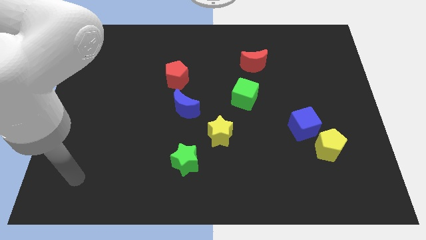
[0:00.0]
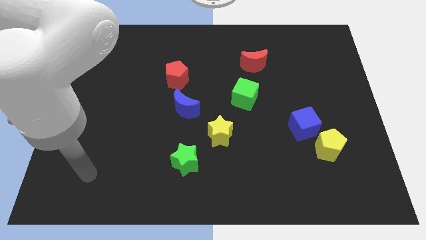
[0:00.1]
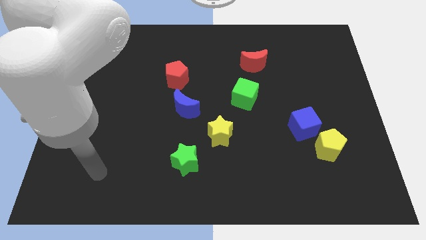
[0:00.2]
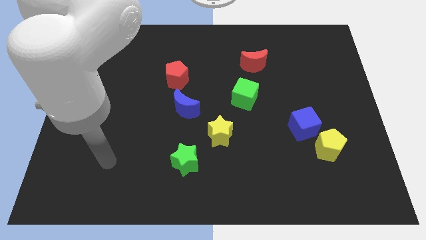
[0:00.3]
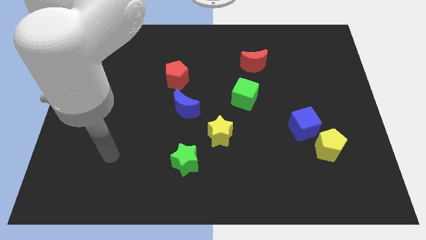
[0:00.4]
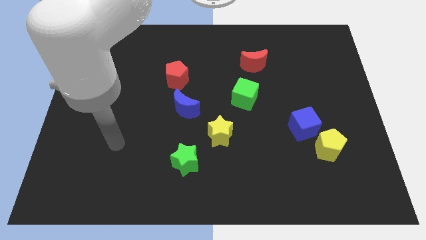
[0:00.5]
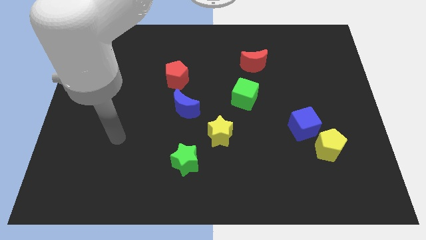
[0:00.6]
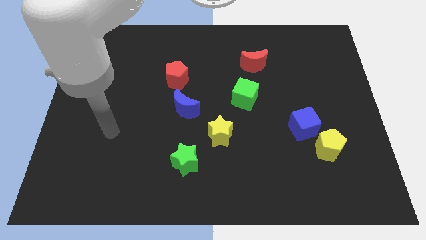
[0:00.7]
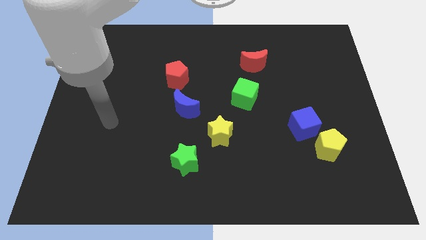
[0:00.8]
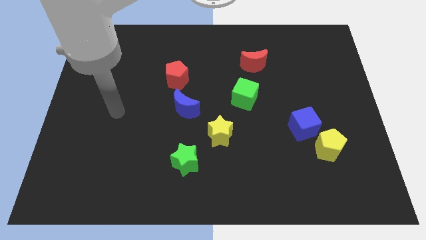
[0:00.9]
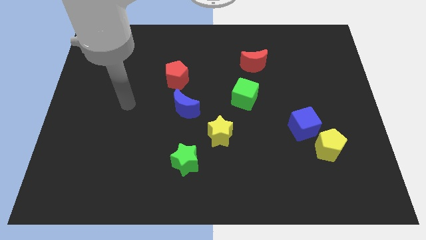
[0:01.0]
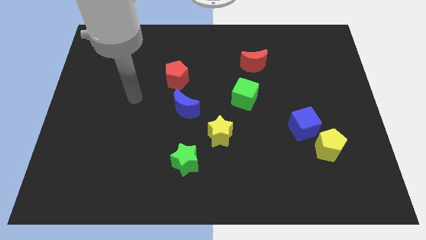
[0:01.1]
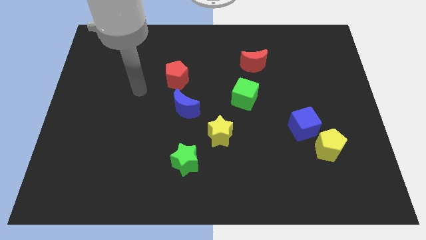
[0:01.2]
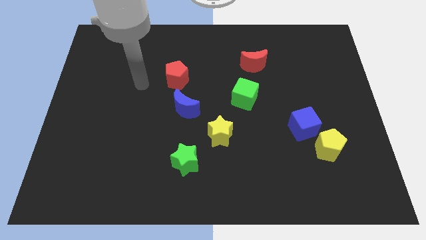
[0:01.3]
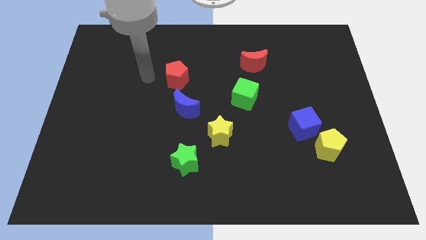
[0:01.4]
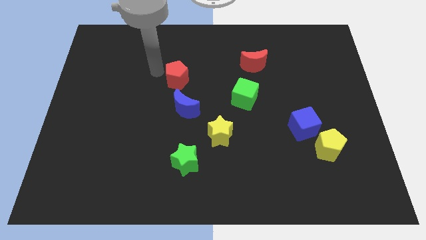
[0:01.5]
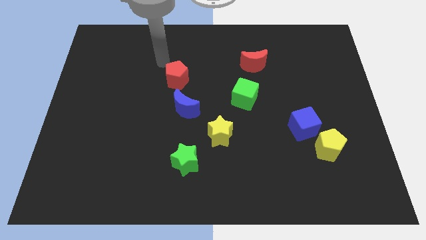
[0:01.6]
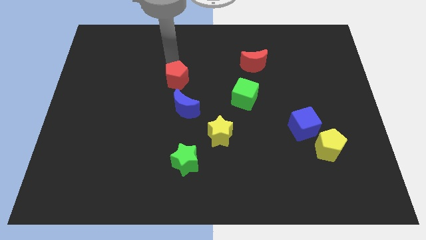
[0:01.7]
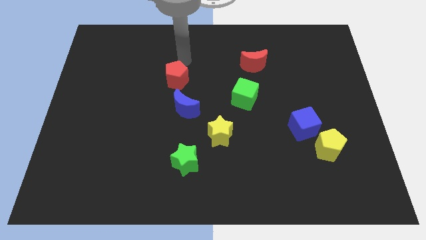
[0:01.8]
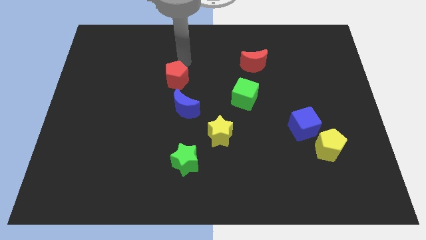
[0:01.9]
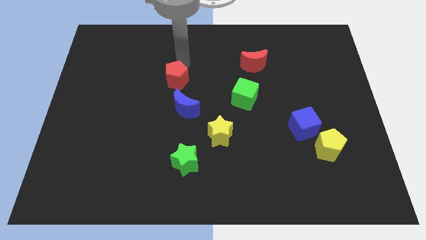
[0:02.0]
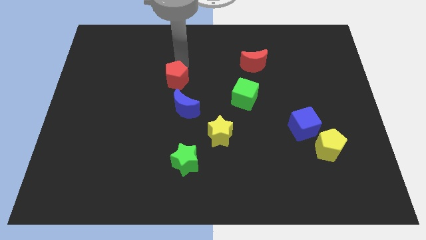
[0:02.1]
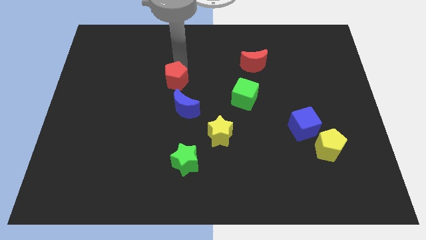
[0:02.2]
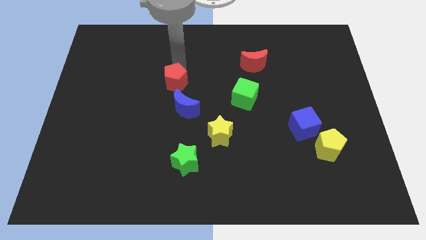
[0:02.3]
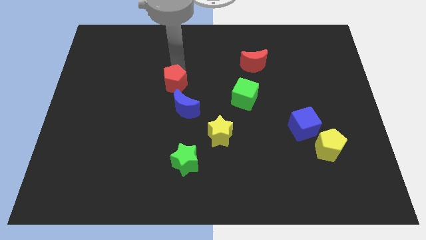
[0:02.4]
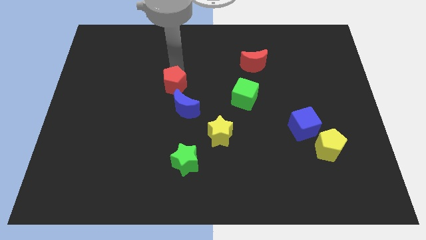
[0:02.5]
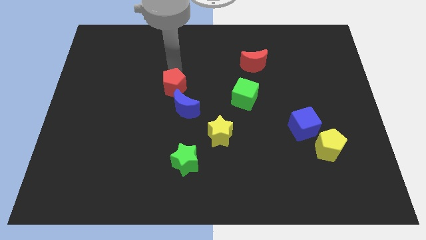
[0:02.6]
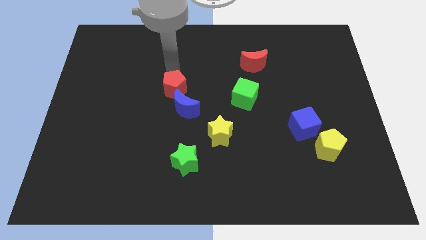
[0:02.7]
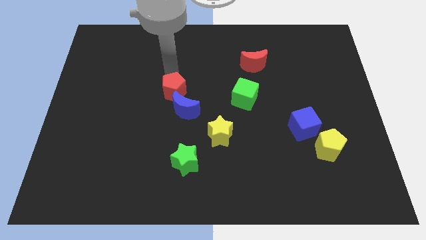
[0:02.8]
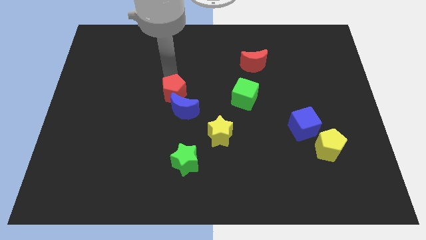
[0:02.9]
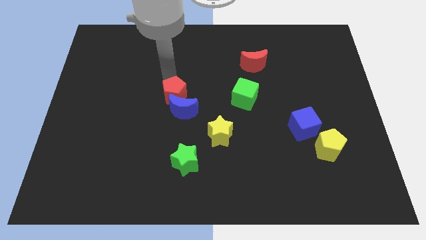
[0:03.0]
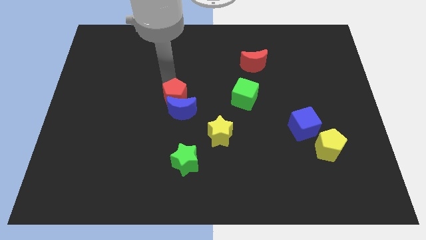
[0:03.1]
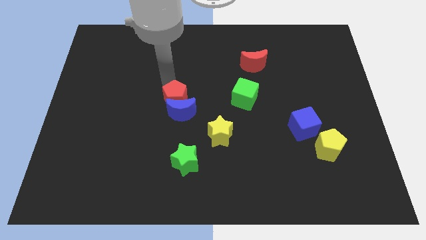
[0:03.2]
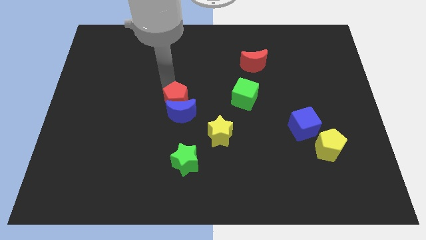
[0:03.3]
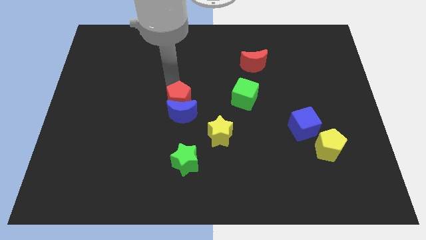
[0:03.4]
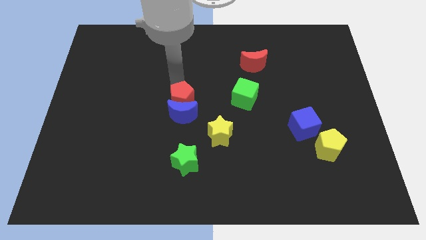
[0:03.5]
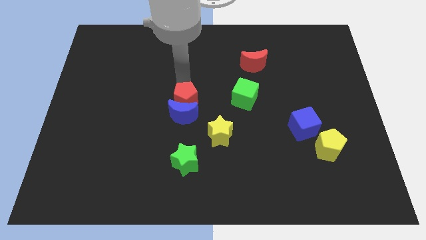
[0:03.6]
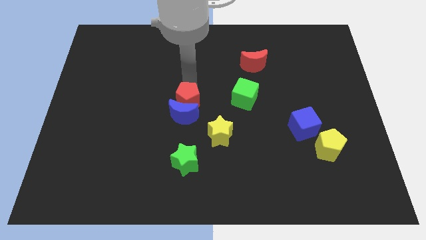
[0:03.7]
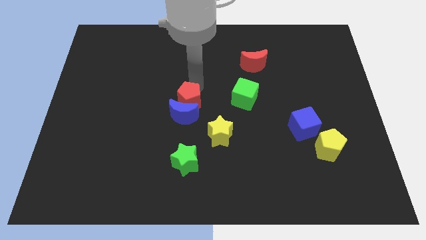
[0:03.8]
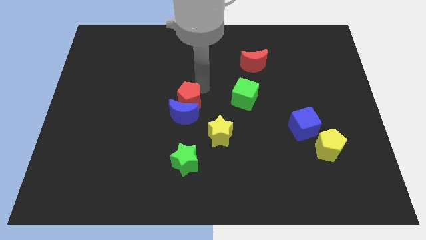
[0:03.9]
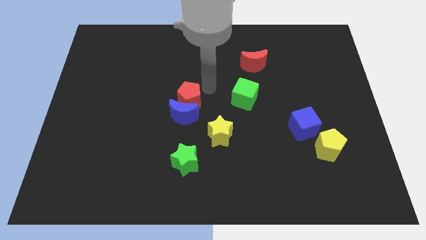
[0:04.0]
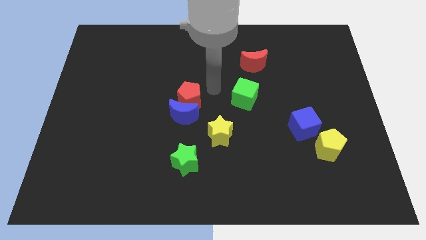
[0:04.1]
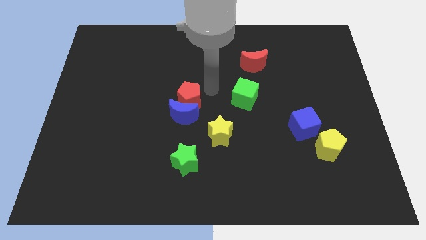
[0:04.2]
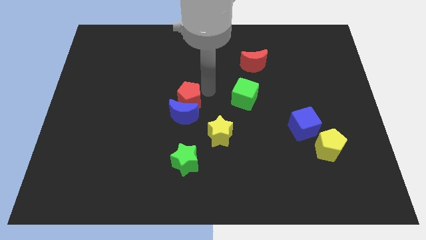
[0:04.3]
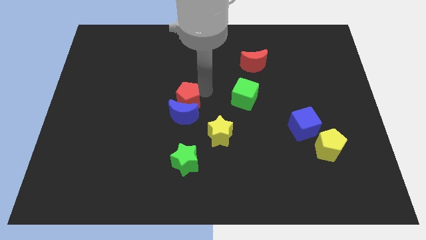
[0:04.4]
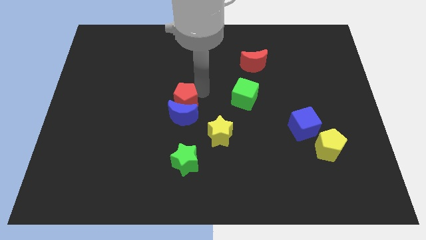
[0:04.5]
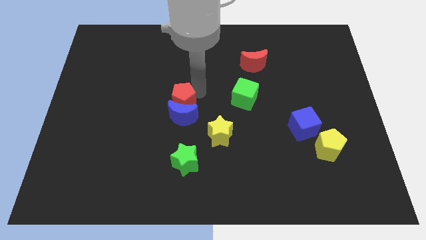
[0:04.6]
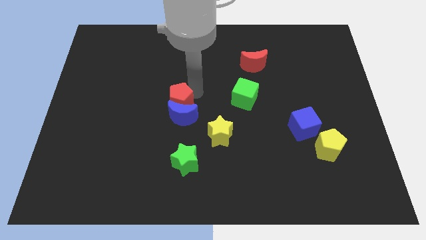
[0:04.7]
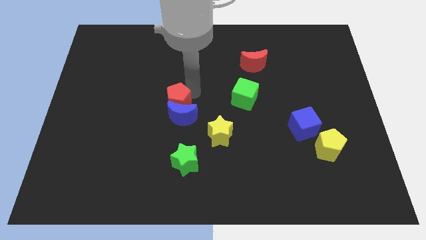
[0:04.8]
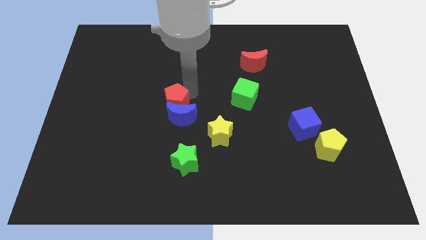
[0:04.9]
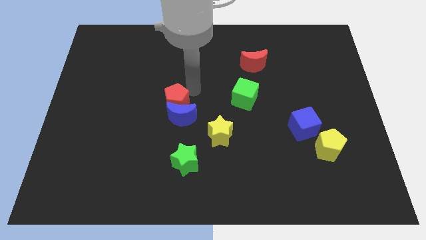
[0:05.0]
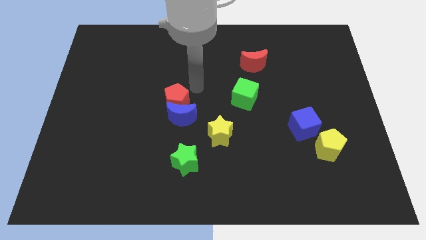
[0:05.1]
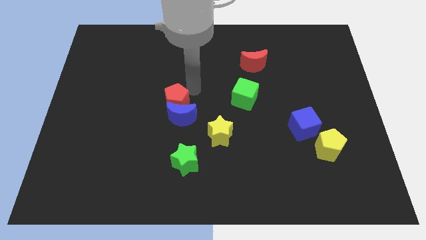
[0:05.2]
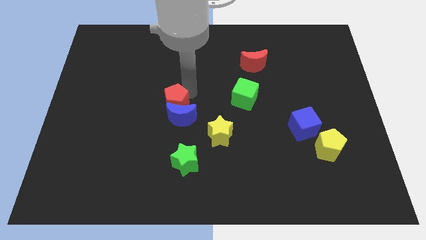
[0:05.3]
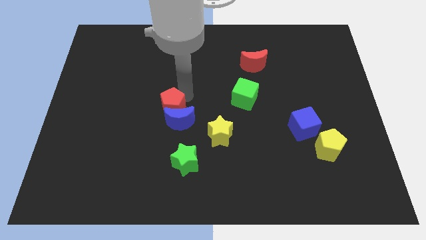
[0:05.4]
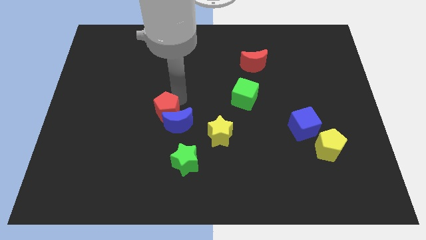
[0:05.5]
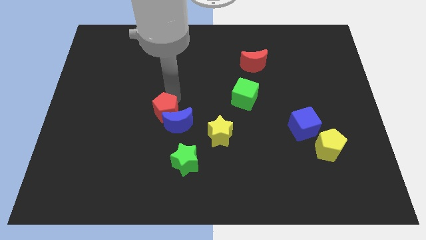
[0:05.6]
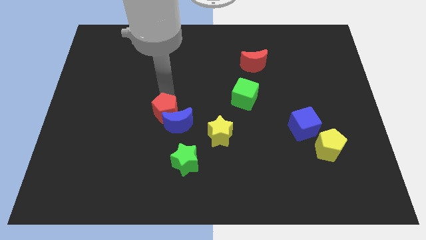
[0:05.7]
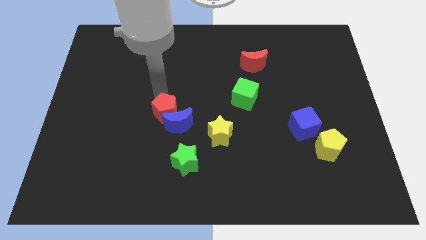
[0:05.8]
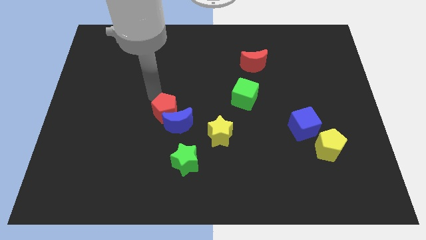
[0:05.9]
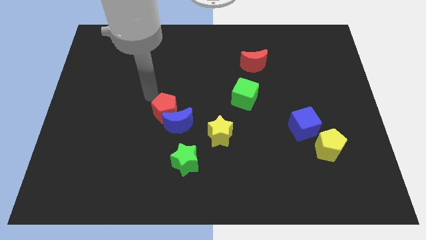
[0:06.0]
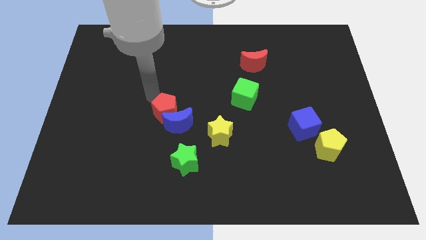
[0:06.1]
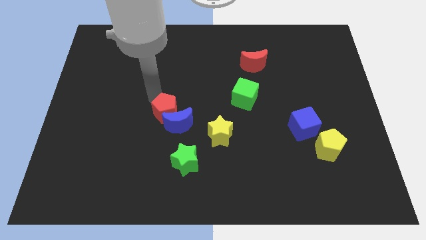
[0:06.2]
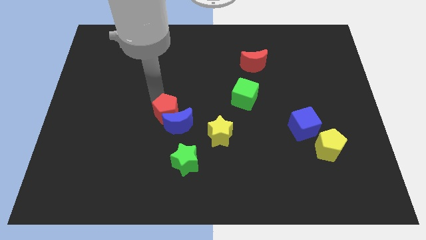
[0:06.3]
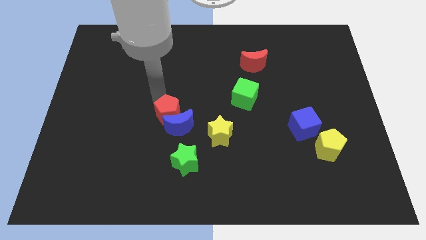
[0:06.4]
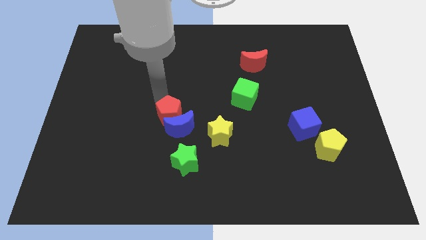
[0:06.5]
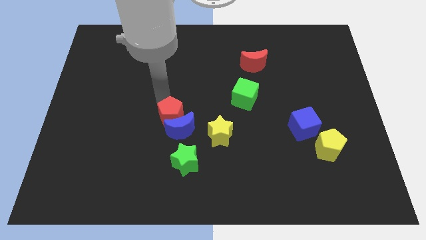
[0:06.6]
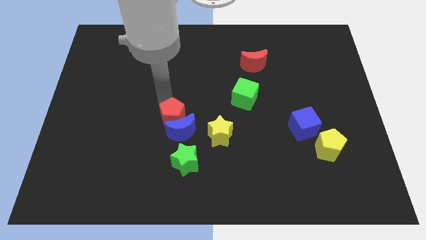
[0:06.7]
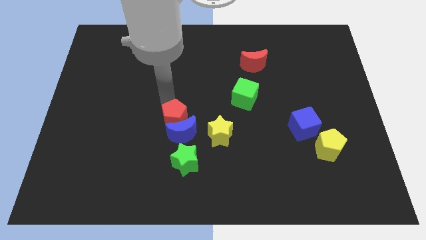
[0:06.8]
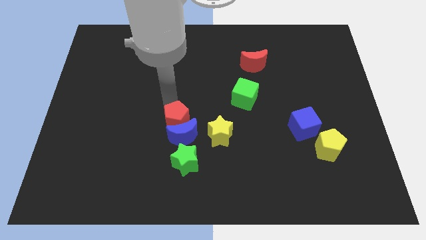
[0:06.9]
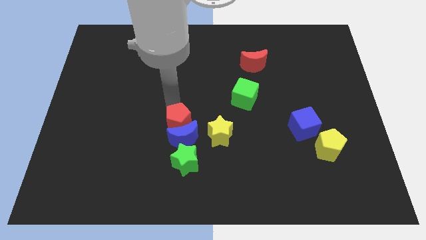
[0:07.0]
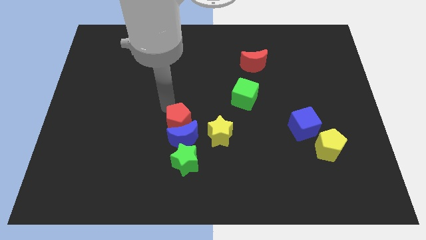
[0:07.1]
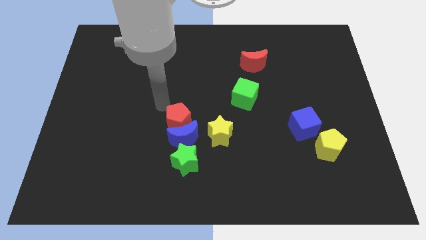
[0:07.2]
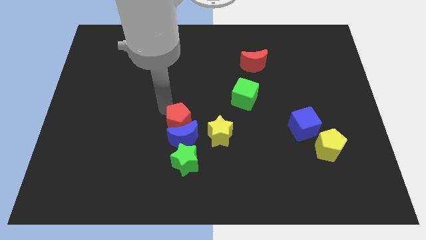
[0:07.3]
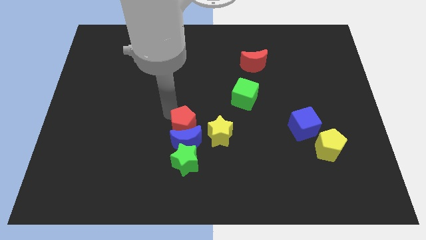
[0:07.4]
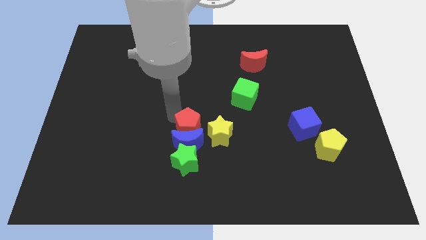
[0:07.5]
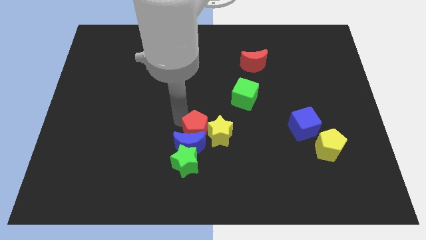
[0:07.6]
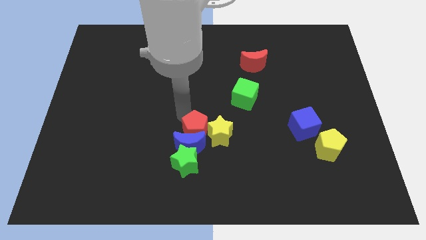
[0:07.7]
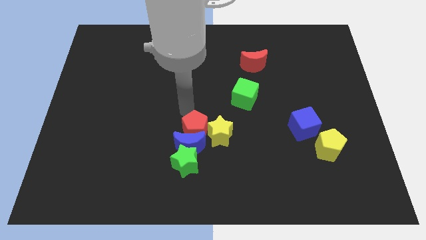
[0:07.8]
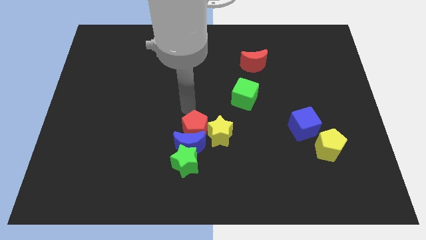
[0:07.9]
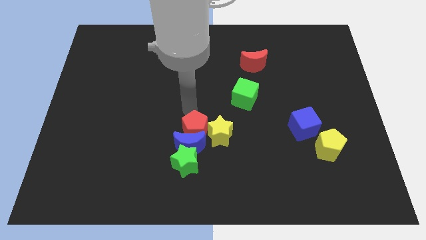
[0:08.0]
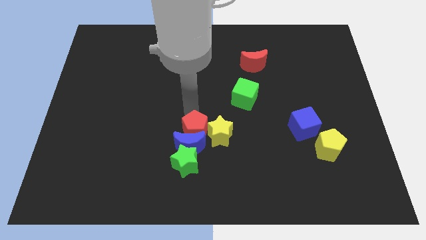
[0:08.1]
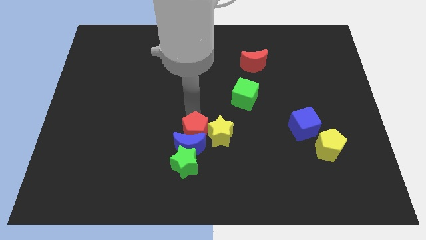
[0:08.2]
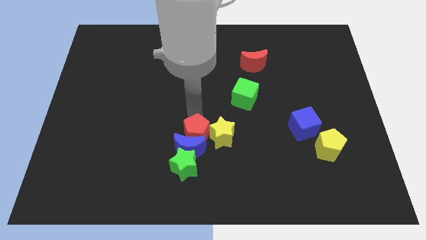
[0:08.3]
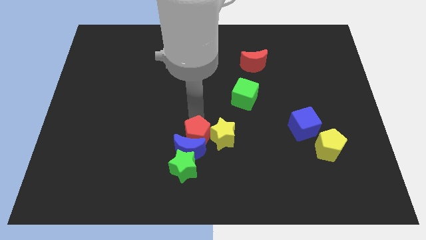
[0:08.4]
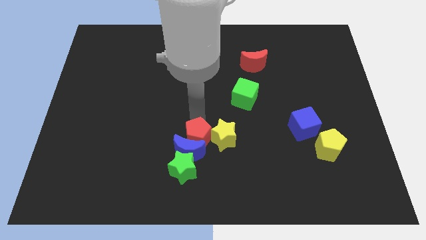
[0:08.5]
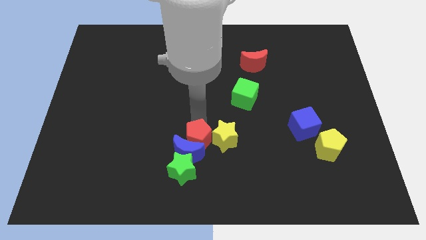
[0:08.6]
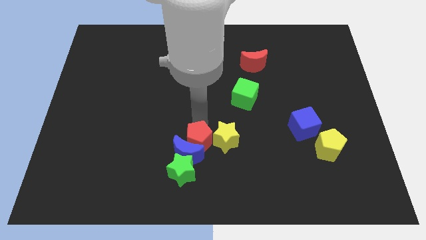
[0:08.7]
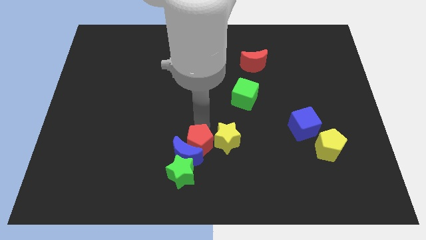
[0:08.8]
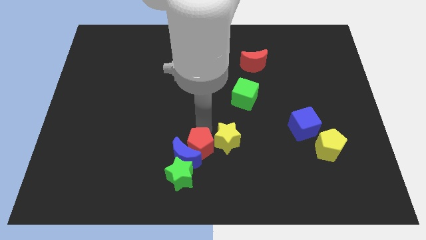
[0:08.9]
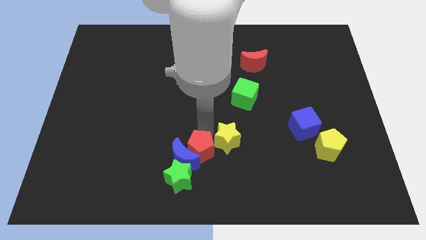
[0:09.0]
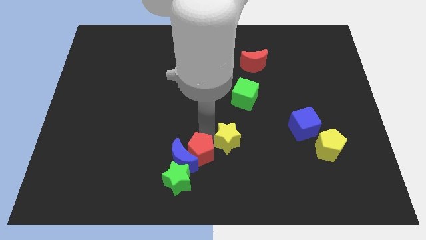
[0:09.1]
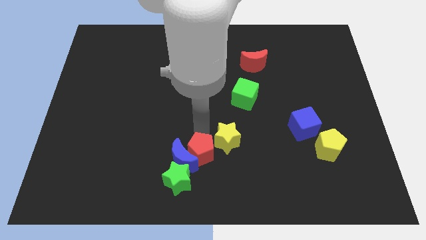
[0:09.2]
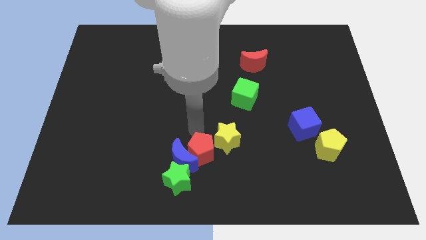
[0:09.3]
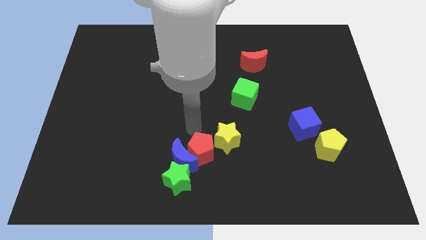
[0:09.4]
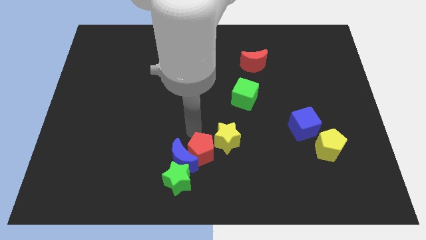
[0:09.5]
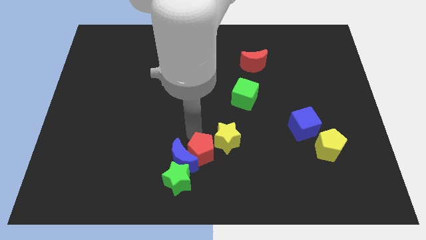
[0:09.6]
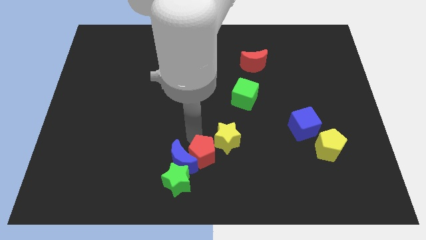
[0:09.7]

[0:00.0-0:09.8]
move the red pentagon to the bottom
